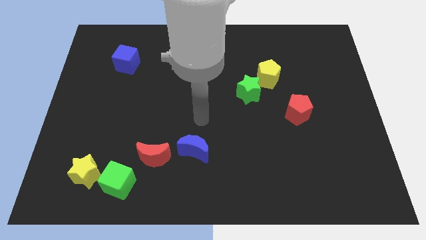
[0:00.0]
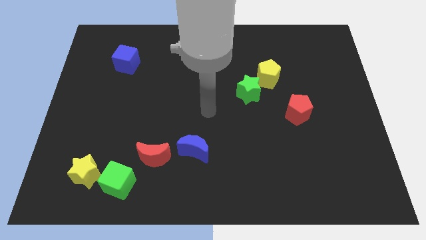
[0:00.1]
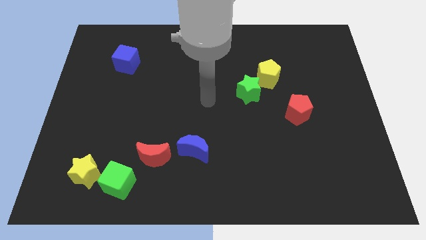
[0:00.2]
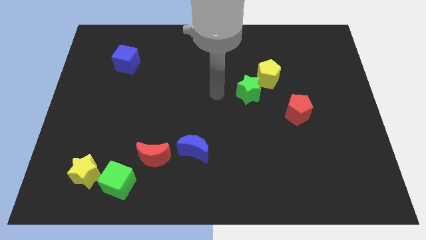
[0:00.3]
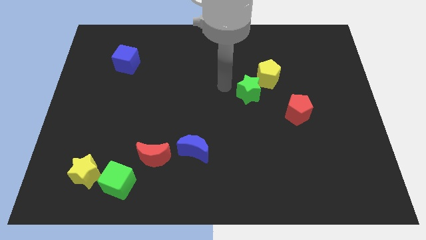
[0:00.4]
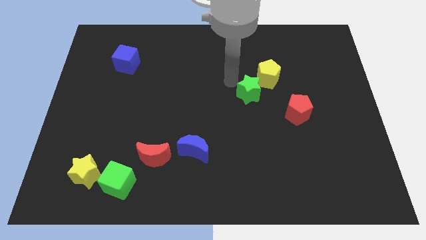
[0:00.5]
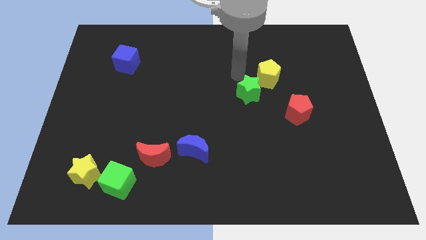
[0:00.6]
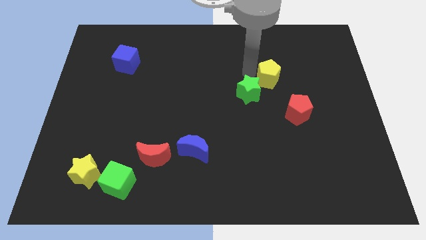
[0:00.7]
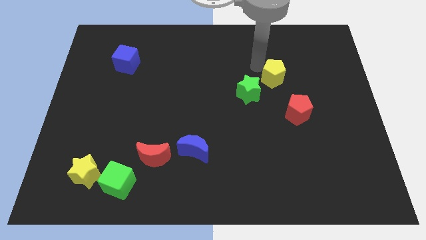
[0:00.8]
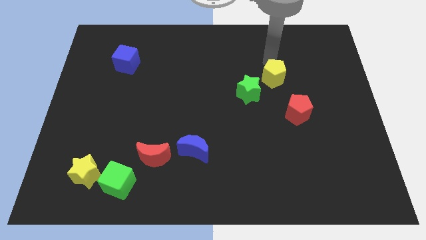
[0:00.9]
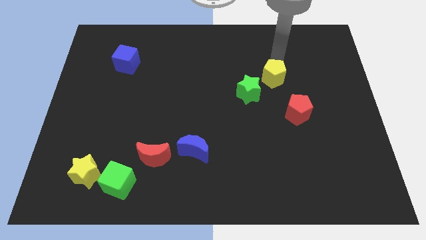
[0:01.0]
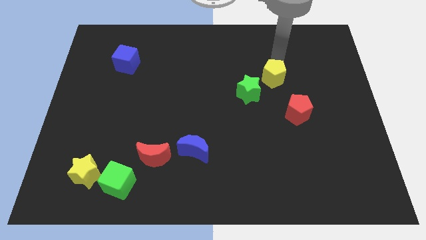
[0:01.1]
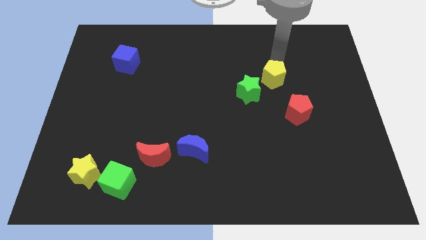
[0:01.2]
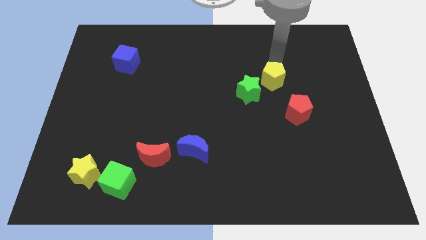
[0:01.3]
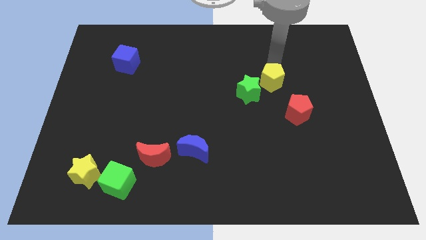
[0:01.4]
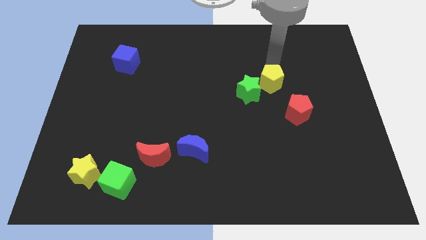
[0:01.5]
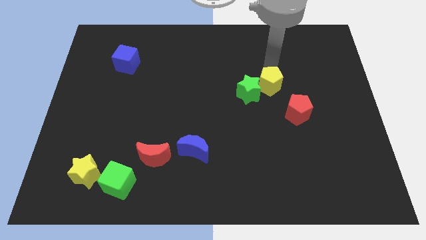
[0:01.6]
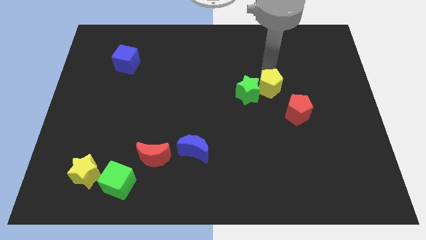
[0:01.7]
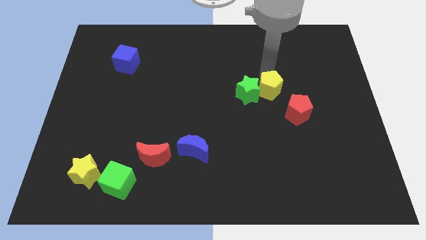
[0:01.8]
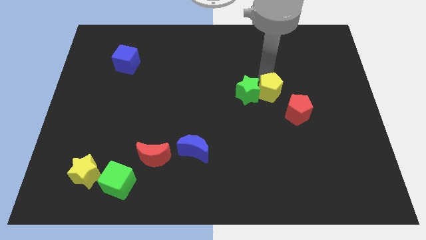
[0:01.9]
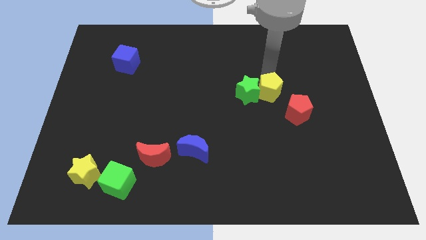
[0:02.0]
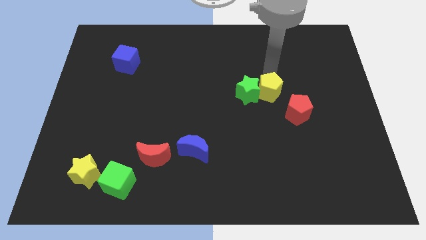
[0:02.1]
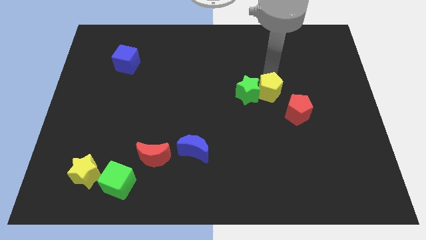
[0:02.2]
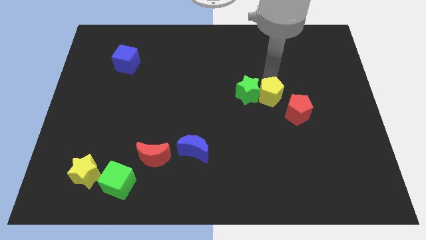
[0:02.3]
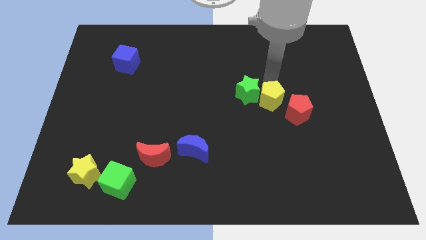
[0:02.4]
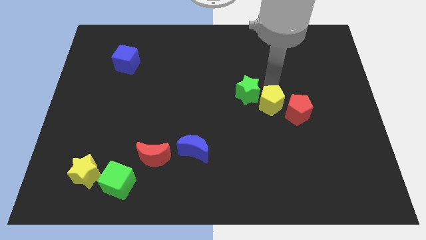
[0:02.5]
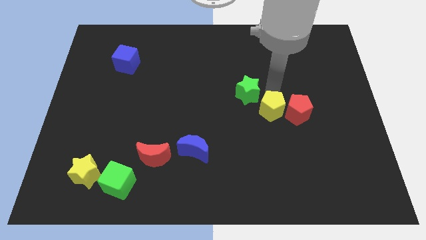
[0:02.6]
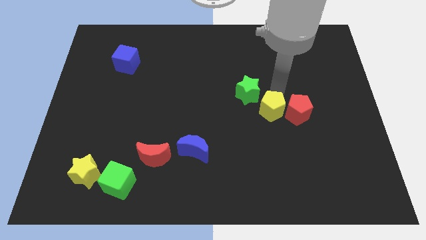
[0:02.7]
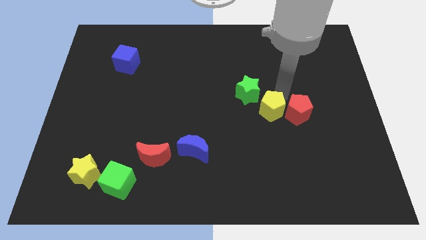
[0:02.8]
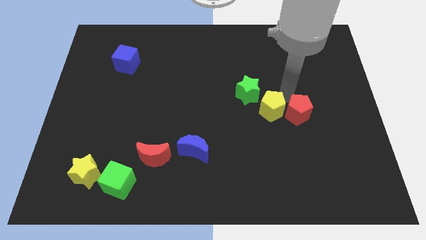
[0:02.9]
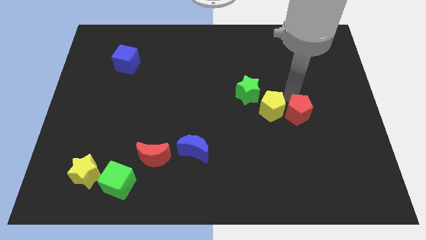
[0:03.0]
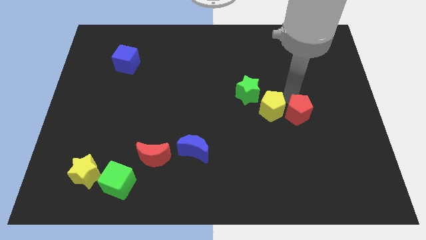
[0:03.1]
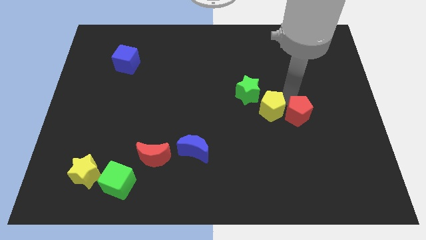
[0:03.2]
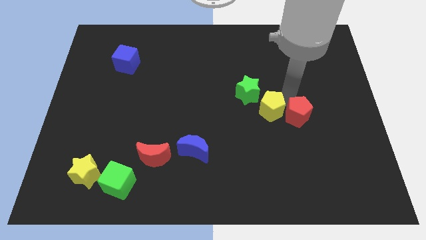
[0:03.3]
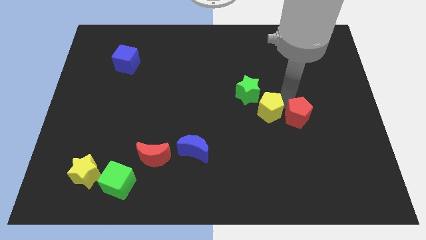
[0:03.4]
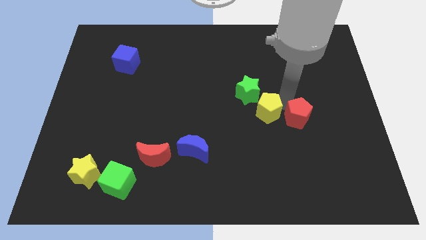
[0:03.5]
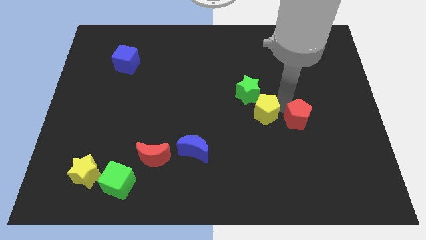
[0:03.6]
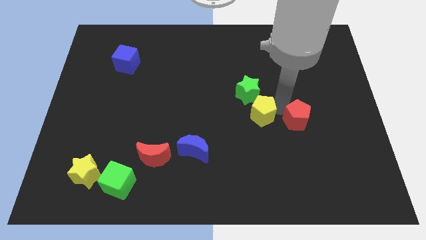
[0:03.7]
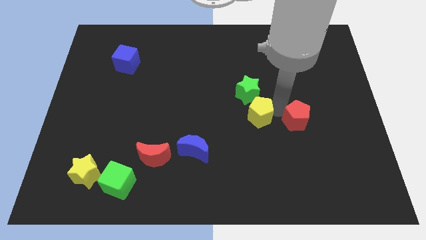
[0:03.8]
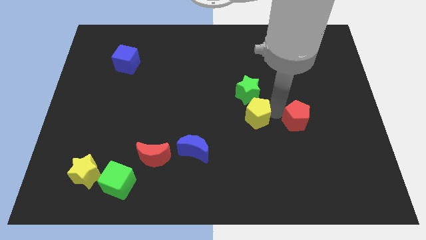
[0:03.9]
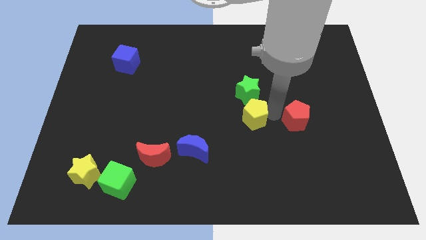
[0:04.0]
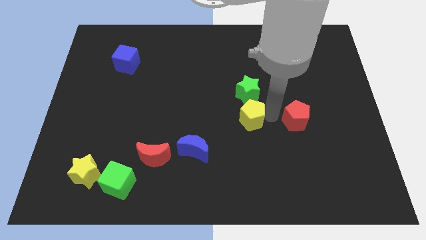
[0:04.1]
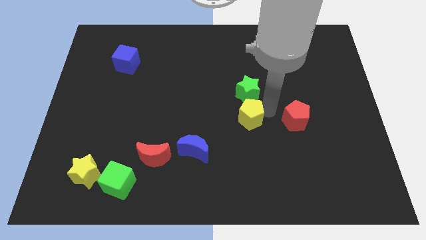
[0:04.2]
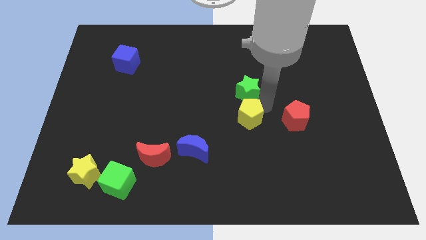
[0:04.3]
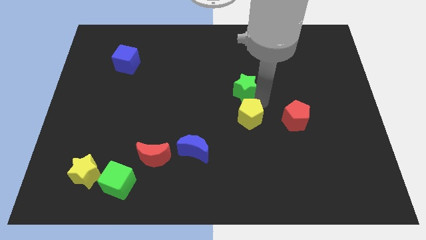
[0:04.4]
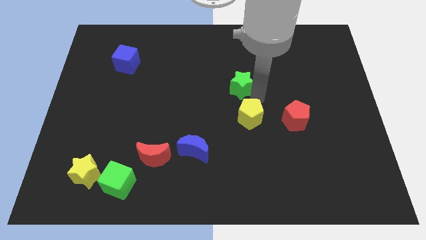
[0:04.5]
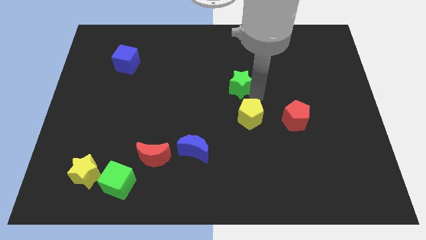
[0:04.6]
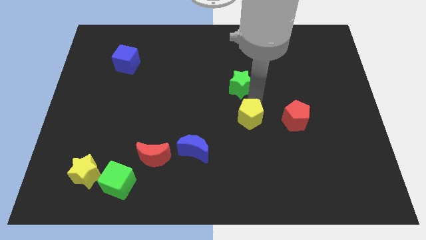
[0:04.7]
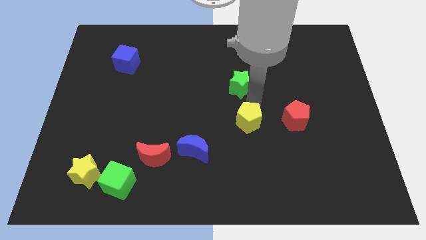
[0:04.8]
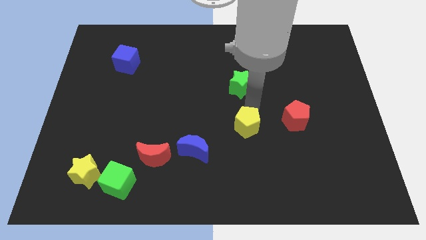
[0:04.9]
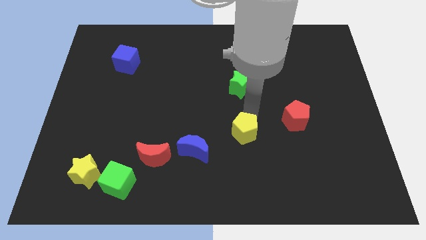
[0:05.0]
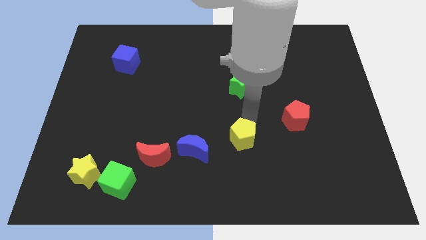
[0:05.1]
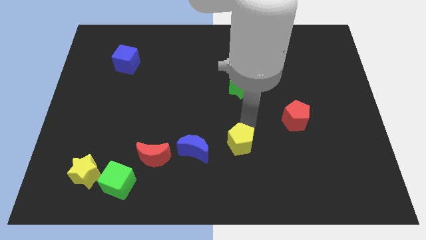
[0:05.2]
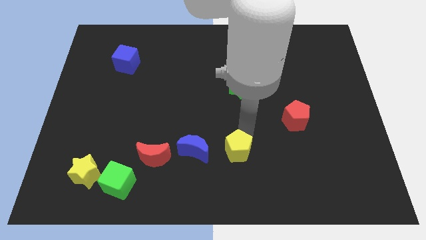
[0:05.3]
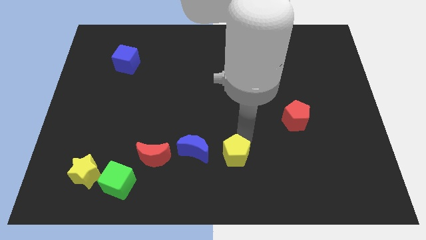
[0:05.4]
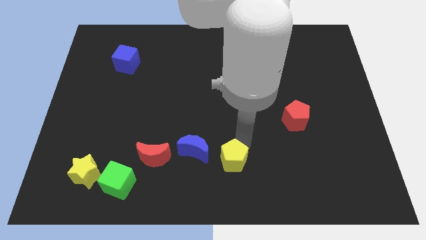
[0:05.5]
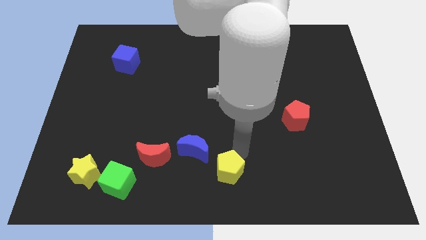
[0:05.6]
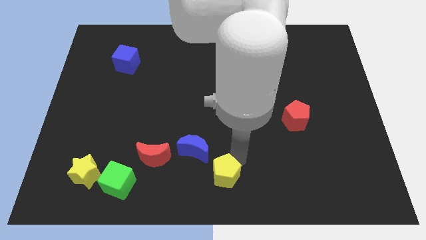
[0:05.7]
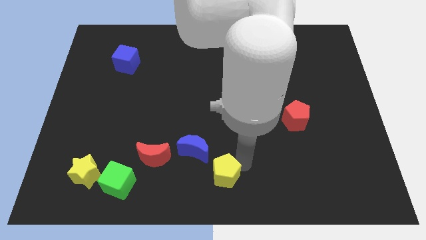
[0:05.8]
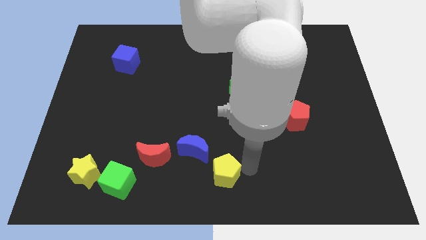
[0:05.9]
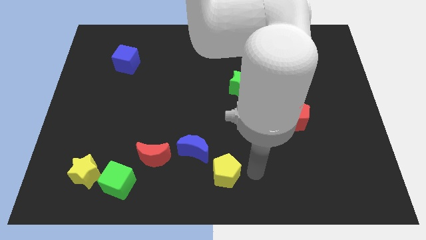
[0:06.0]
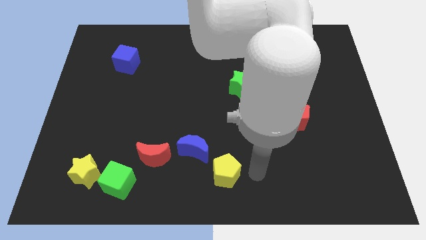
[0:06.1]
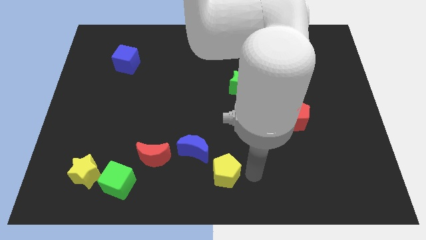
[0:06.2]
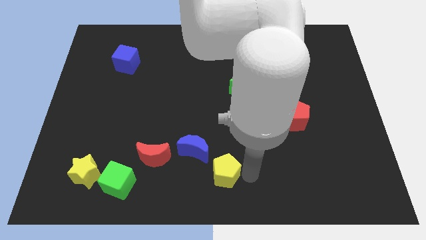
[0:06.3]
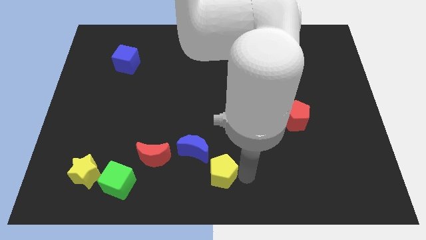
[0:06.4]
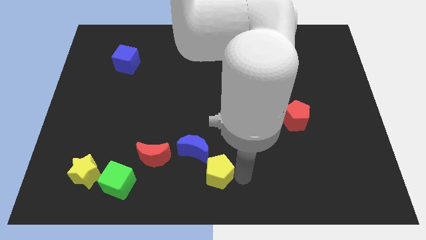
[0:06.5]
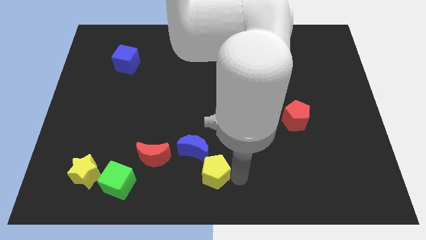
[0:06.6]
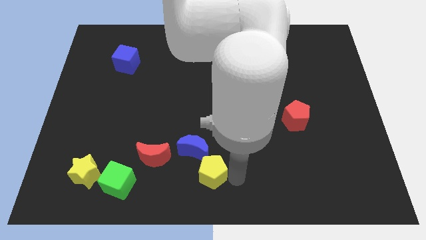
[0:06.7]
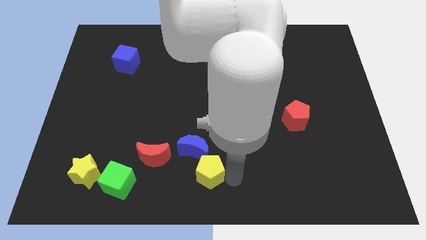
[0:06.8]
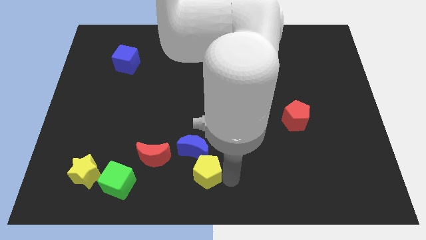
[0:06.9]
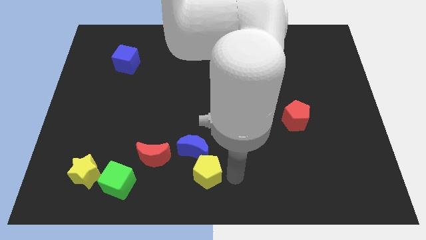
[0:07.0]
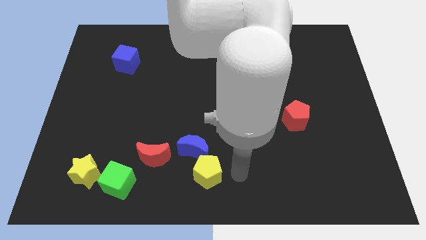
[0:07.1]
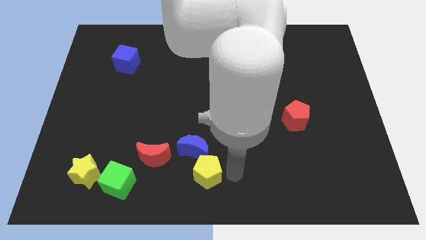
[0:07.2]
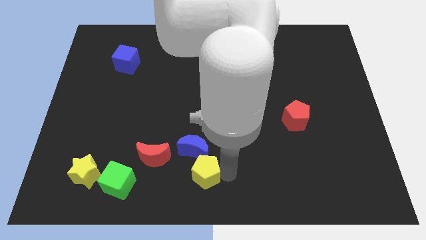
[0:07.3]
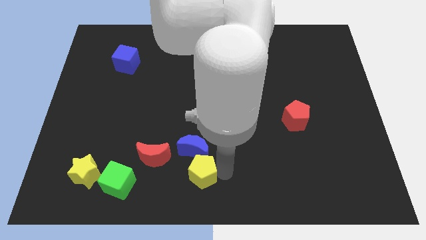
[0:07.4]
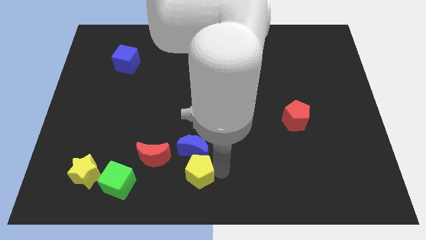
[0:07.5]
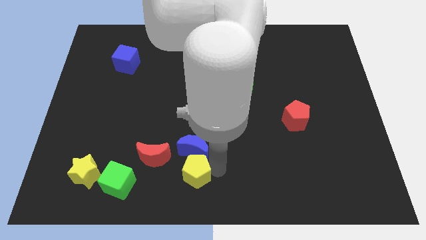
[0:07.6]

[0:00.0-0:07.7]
move the yellow pentagon to the right side of the green cube
